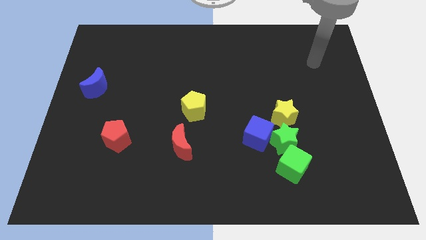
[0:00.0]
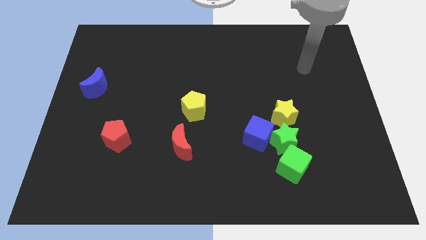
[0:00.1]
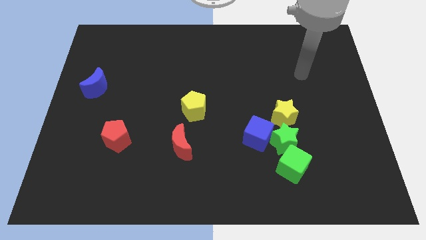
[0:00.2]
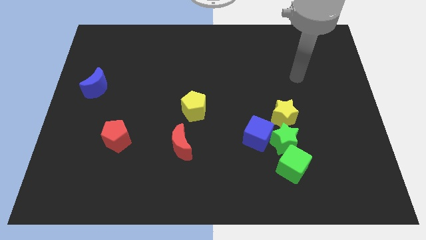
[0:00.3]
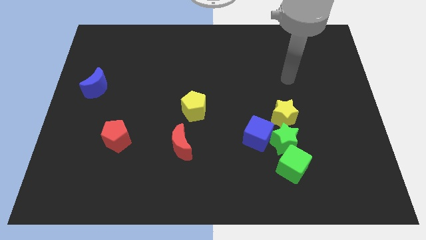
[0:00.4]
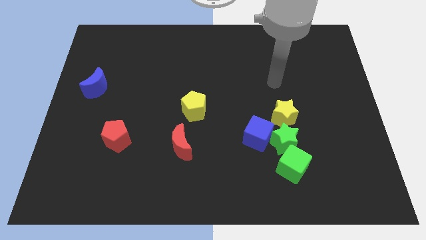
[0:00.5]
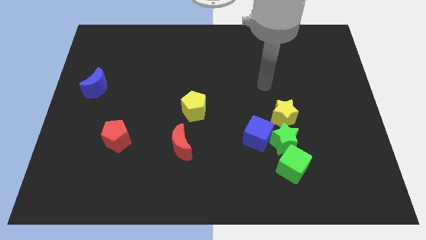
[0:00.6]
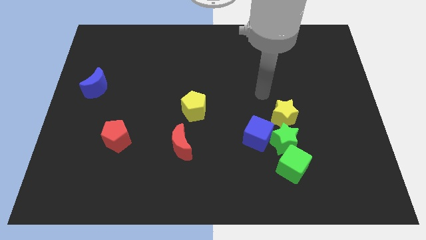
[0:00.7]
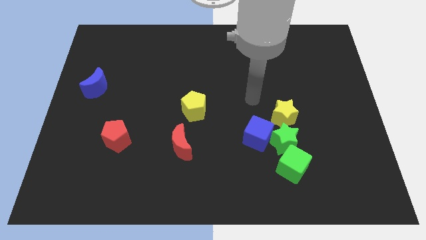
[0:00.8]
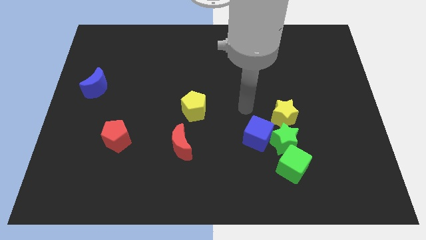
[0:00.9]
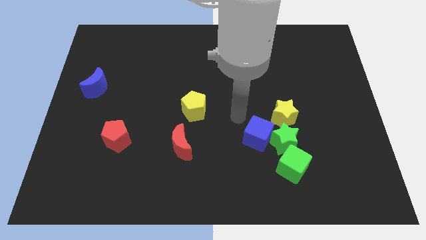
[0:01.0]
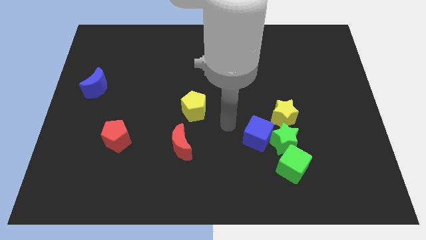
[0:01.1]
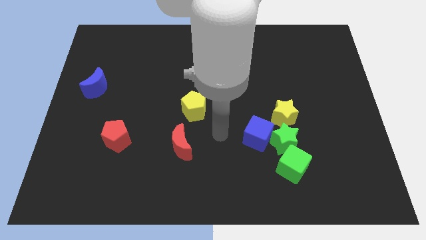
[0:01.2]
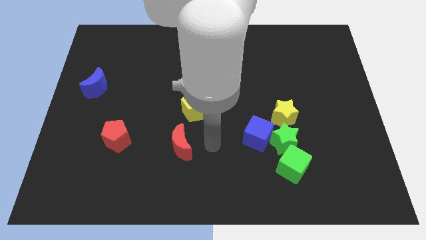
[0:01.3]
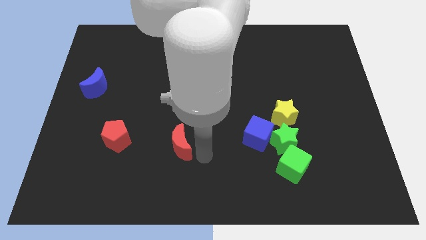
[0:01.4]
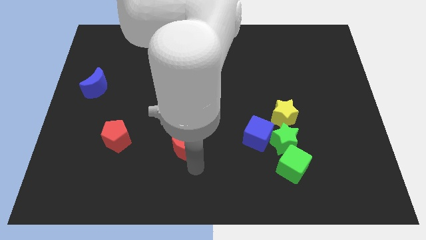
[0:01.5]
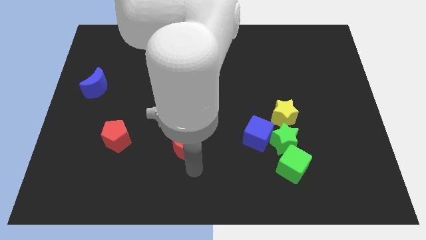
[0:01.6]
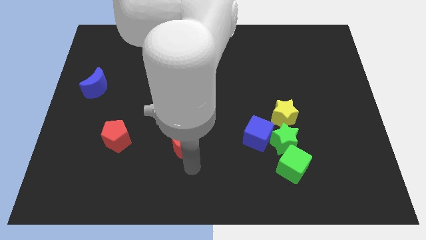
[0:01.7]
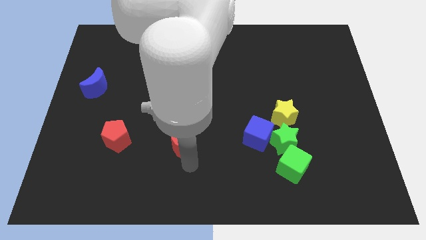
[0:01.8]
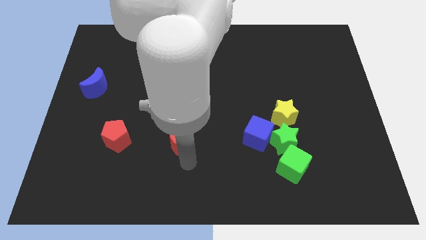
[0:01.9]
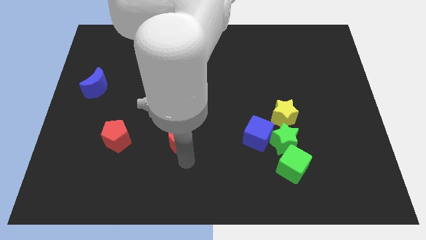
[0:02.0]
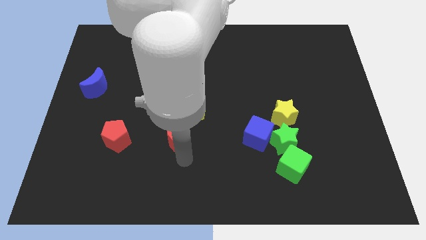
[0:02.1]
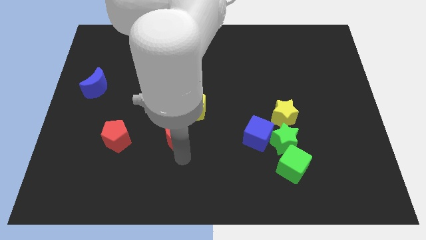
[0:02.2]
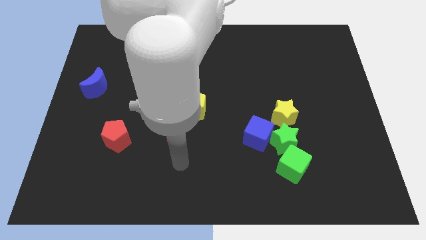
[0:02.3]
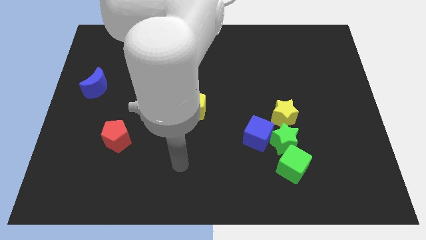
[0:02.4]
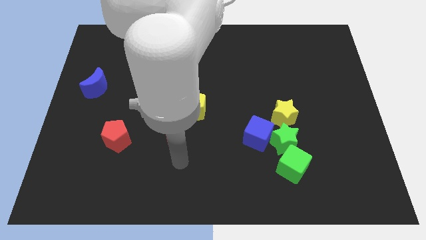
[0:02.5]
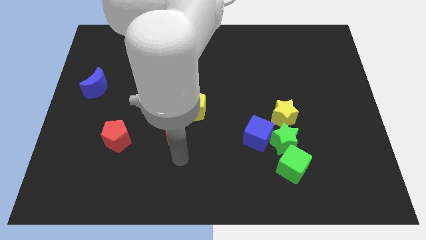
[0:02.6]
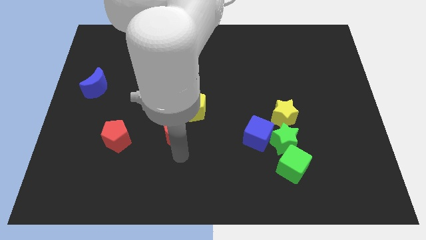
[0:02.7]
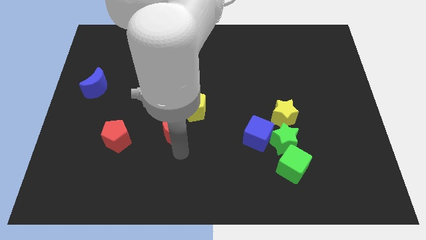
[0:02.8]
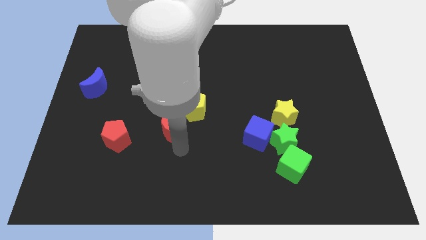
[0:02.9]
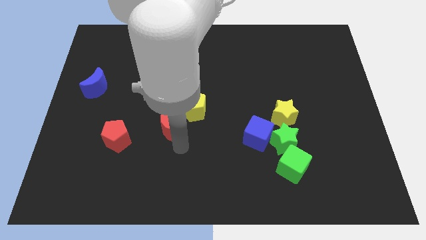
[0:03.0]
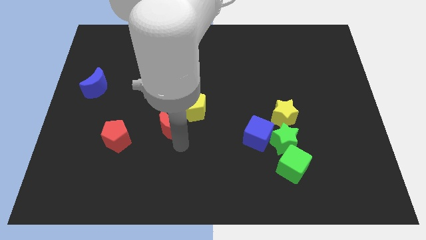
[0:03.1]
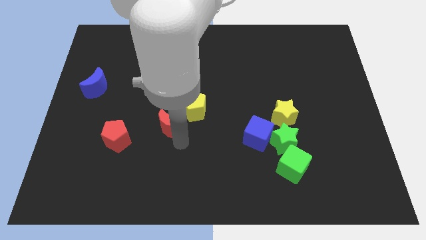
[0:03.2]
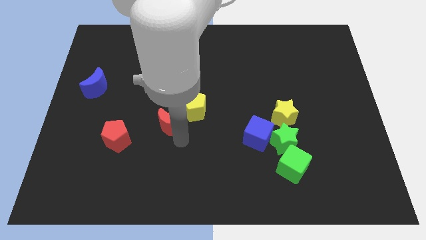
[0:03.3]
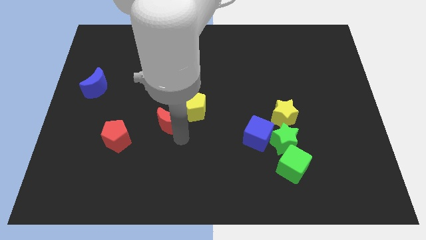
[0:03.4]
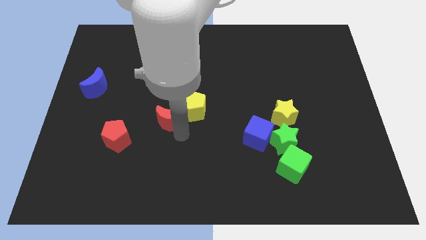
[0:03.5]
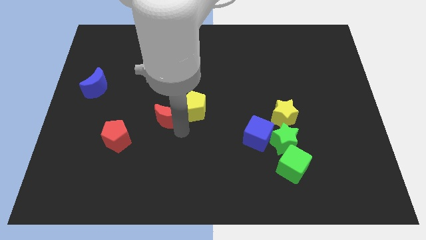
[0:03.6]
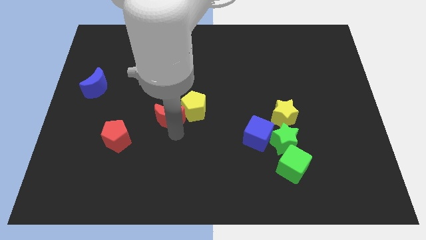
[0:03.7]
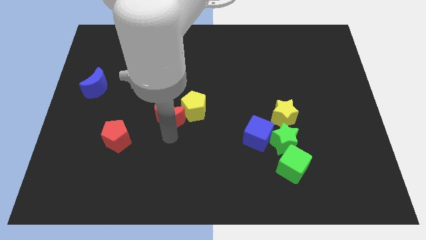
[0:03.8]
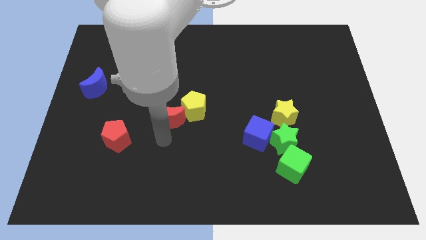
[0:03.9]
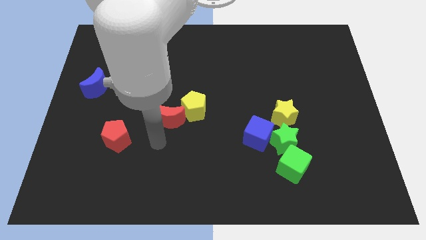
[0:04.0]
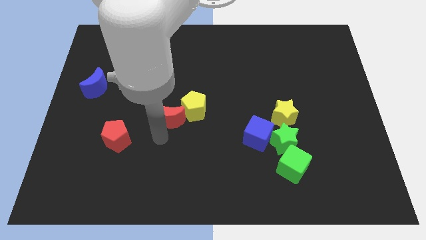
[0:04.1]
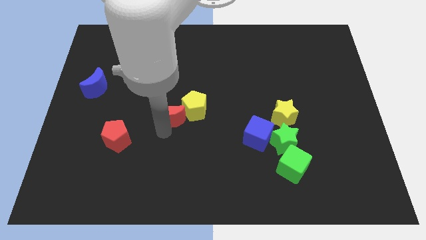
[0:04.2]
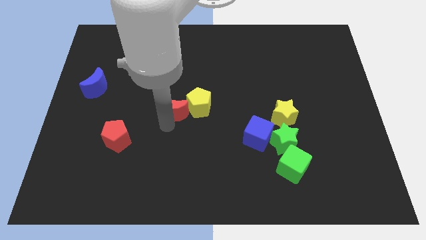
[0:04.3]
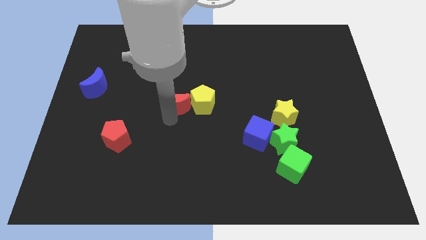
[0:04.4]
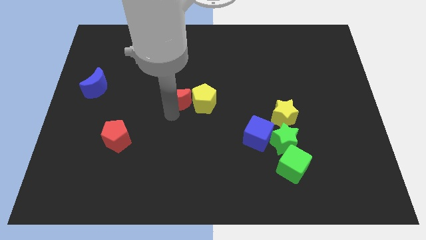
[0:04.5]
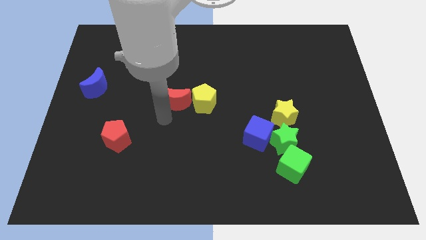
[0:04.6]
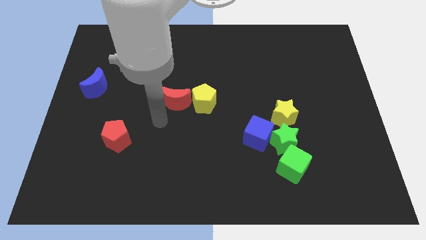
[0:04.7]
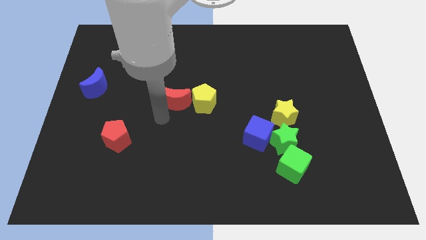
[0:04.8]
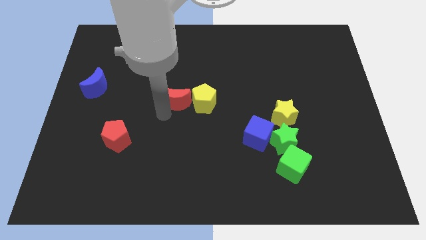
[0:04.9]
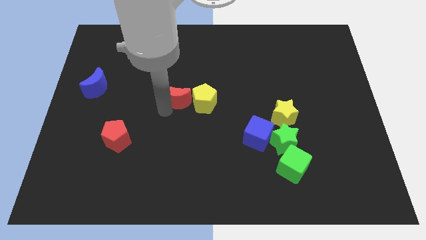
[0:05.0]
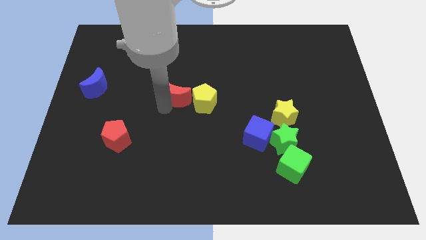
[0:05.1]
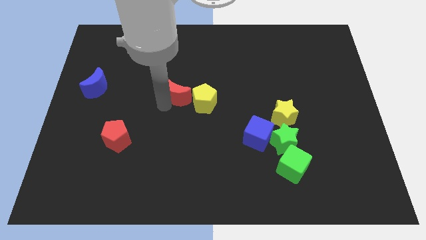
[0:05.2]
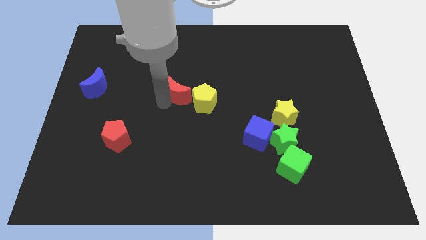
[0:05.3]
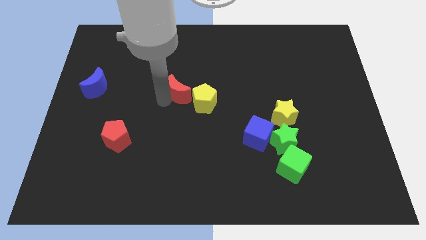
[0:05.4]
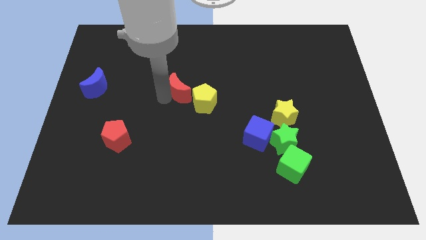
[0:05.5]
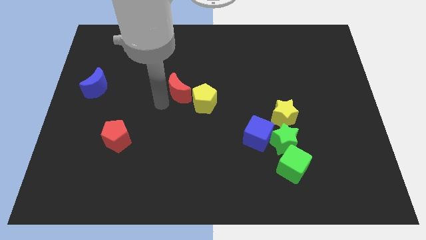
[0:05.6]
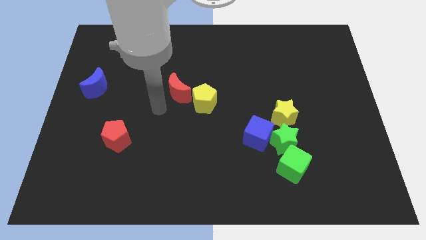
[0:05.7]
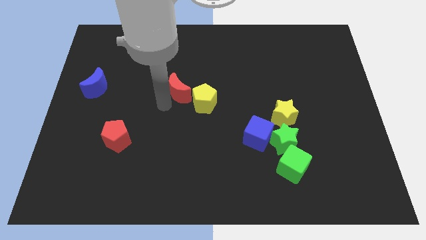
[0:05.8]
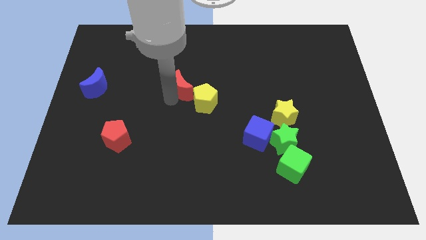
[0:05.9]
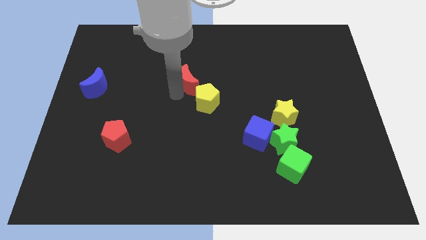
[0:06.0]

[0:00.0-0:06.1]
put the red moon to the top of the yellow pentagon
